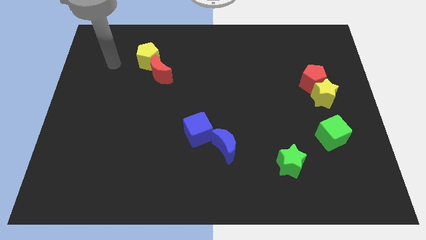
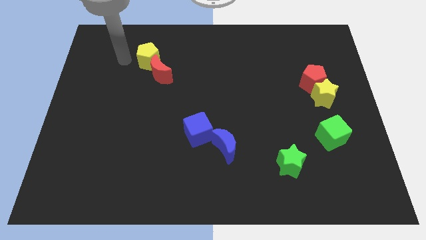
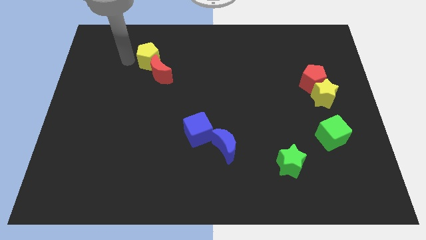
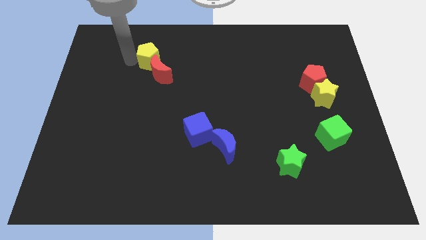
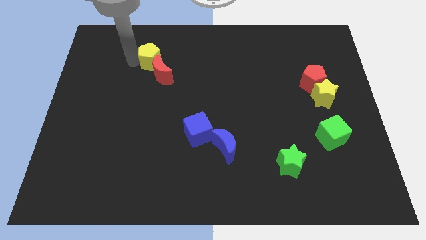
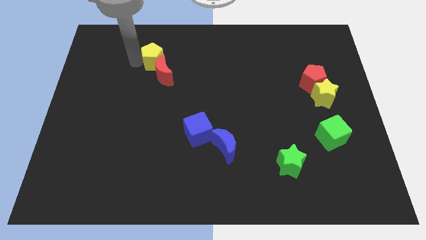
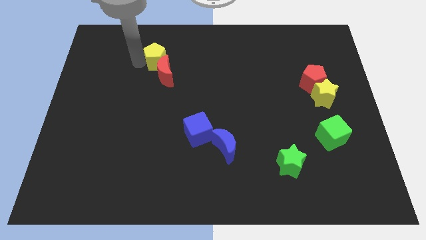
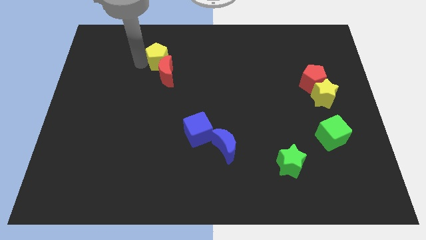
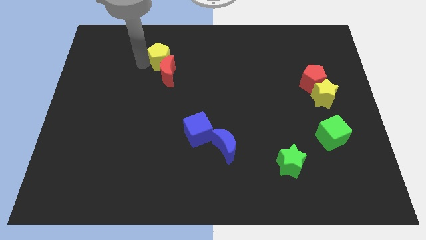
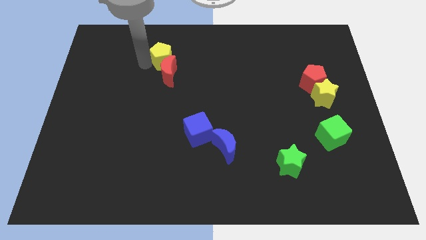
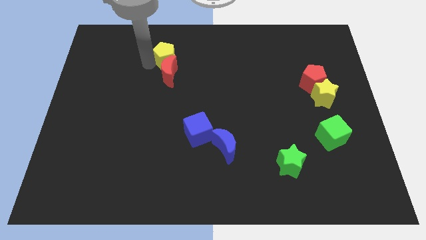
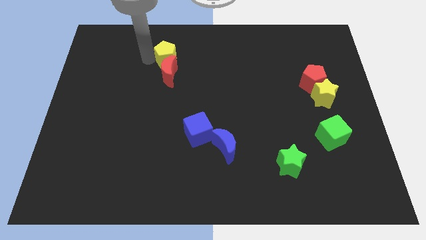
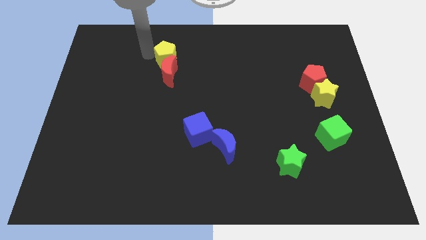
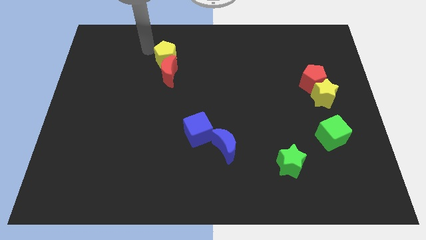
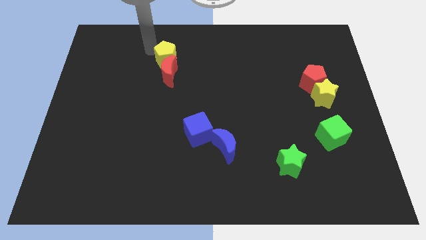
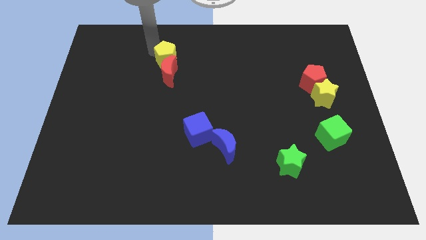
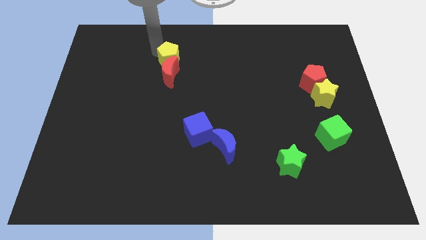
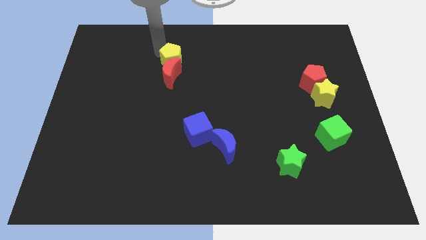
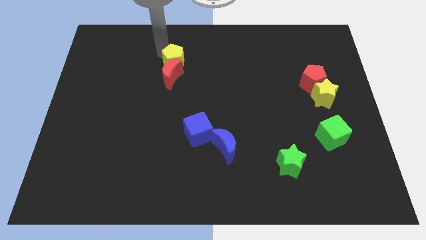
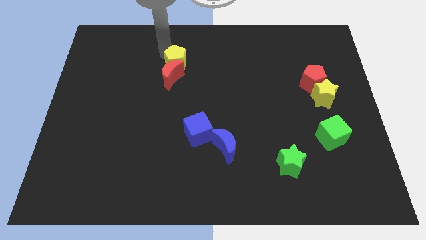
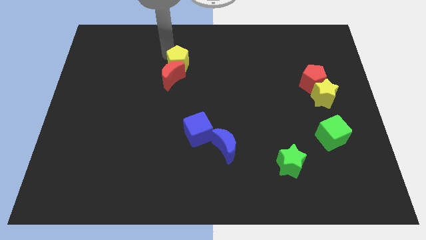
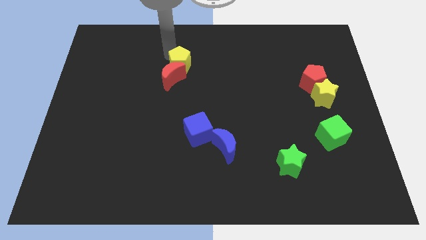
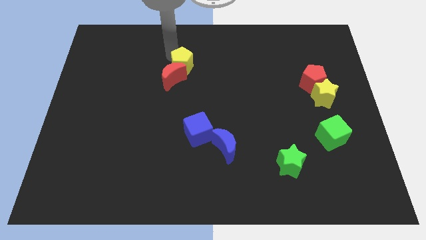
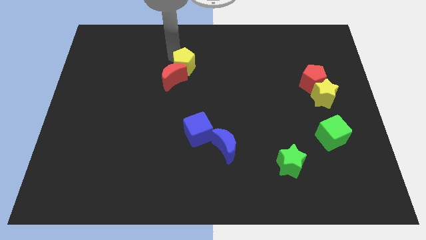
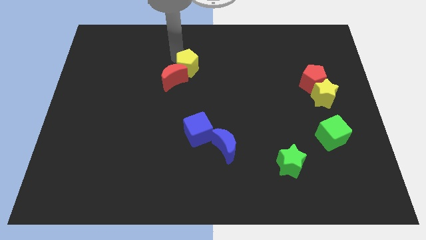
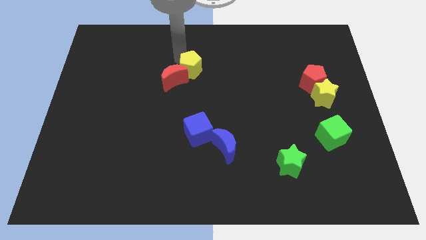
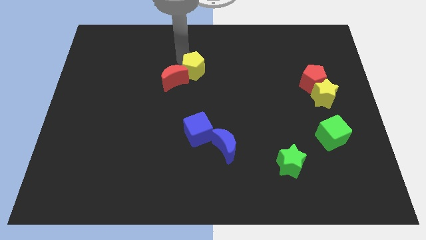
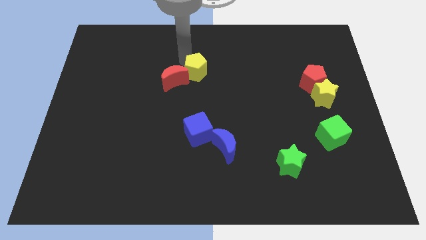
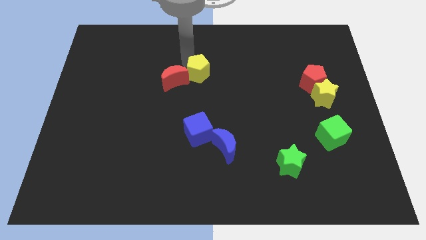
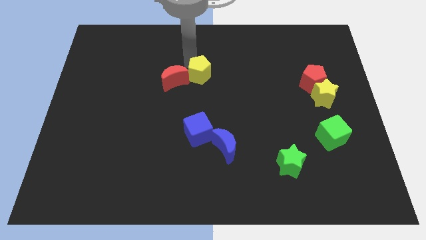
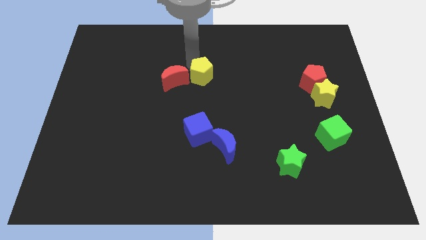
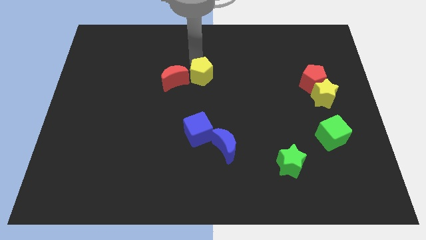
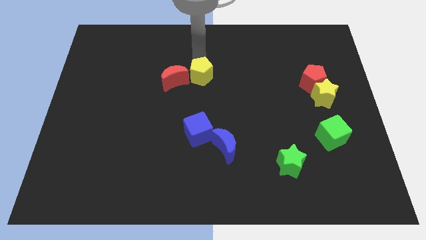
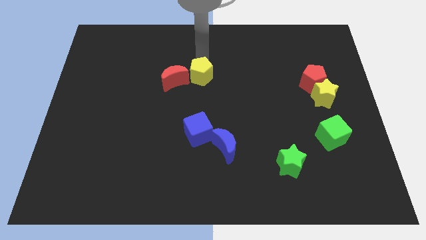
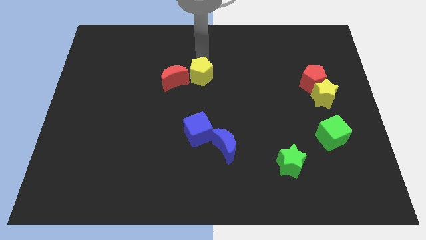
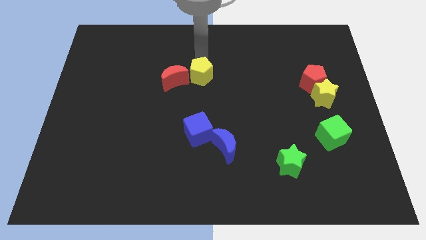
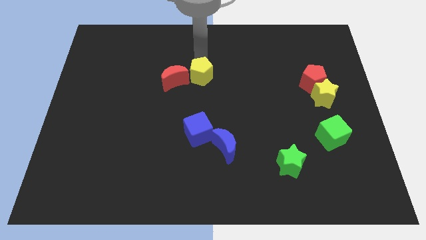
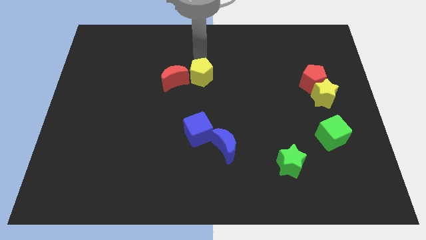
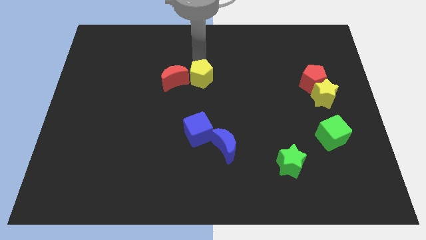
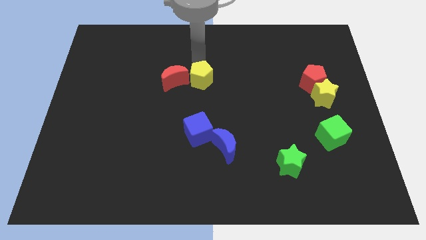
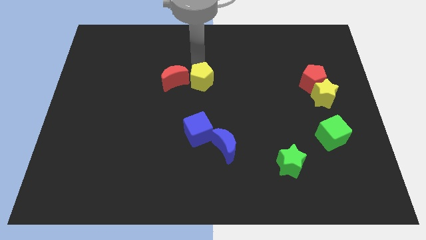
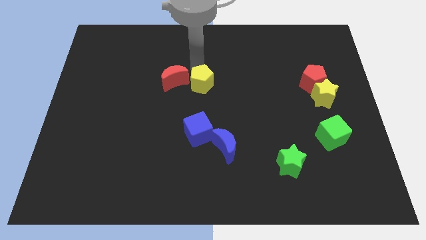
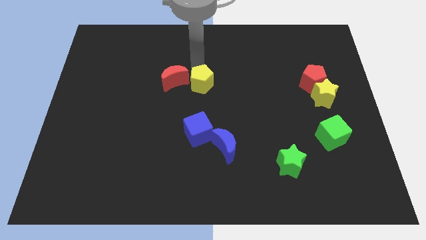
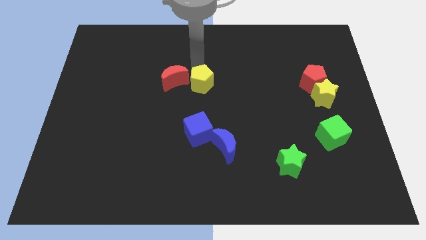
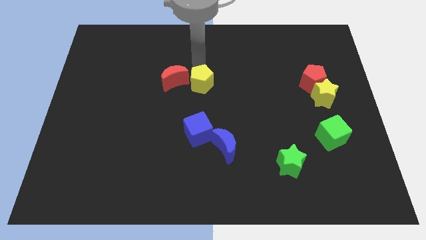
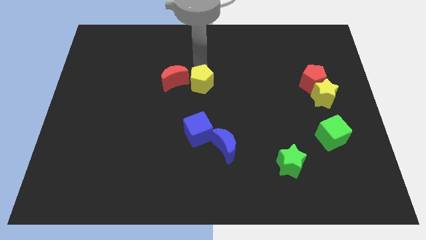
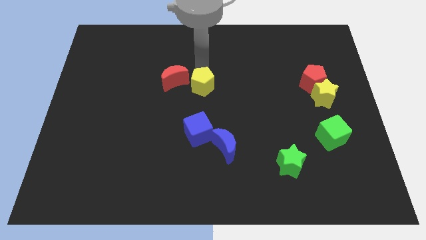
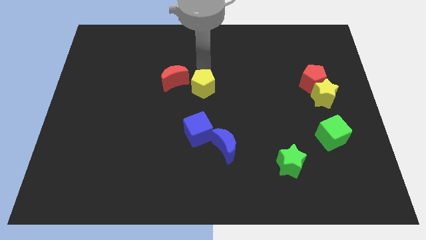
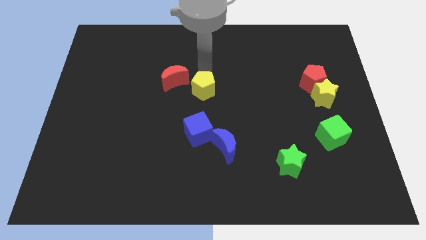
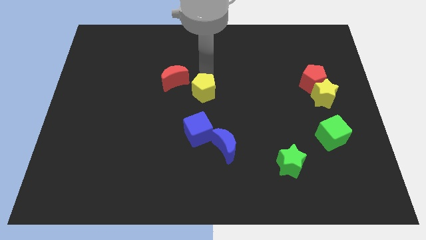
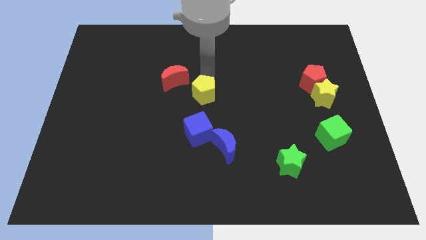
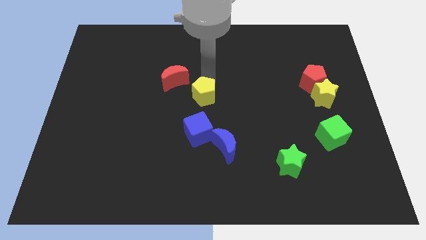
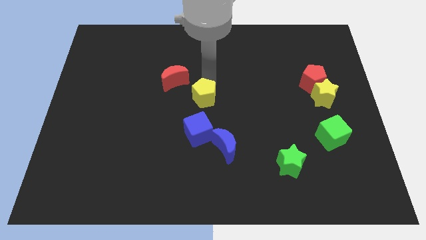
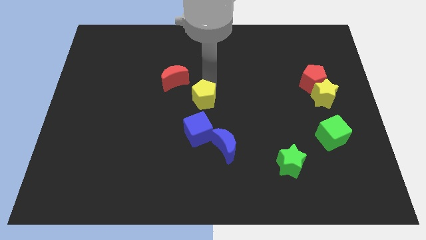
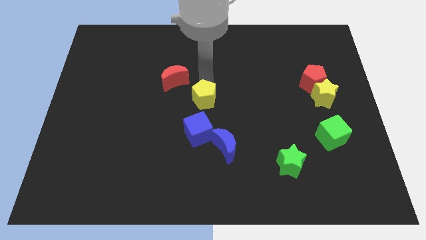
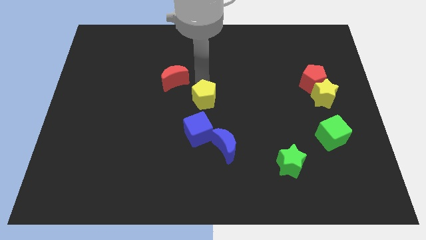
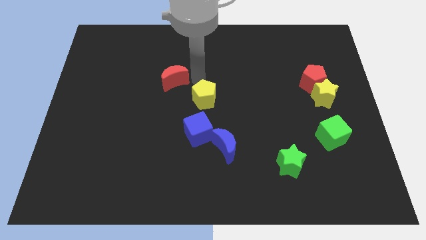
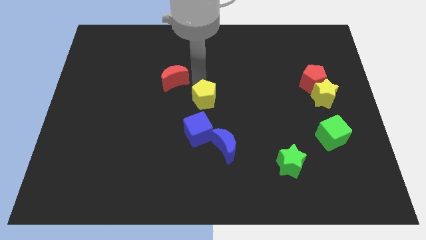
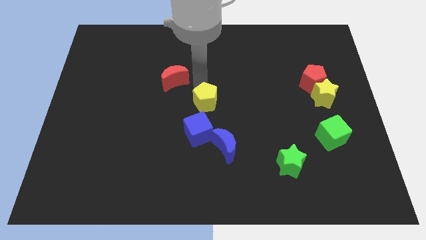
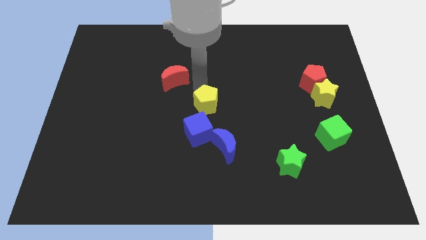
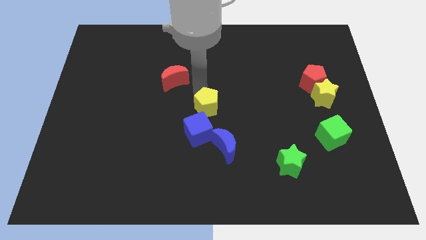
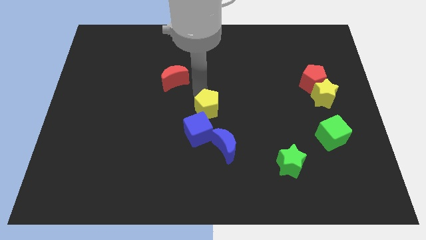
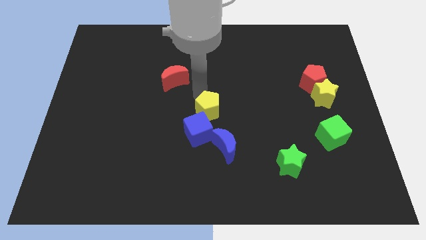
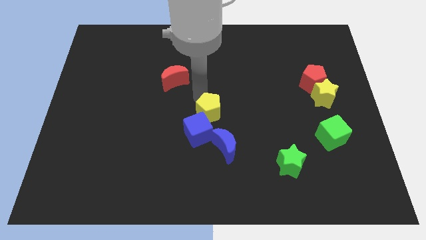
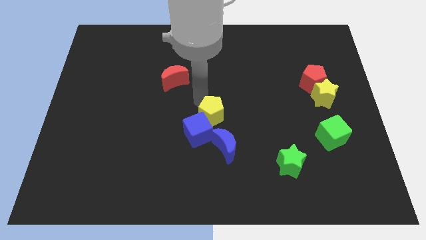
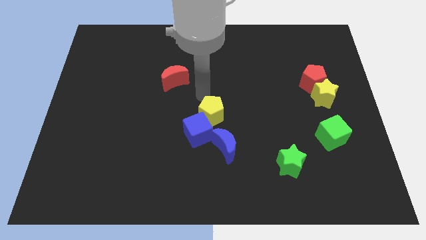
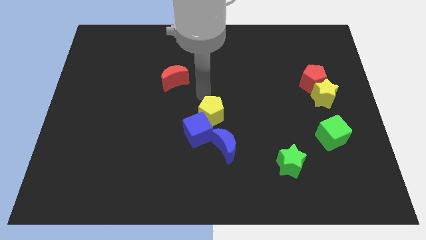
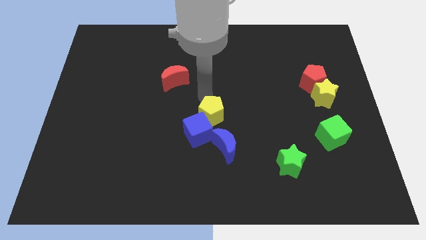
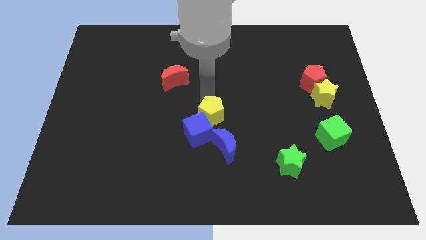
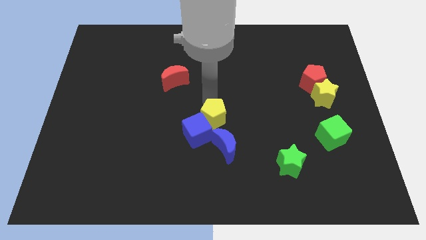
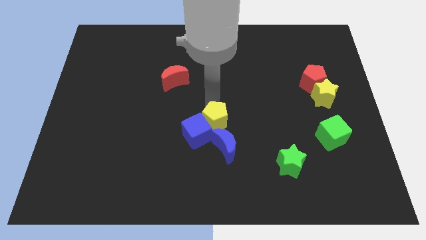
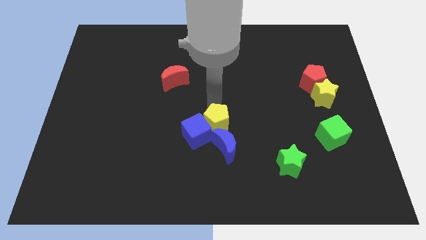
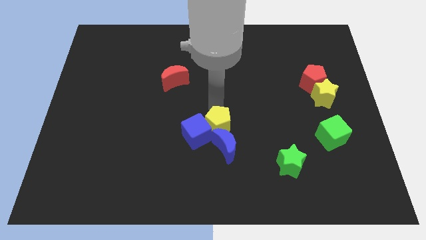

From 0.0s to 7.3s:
slide the yellow pentagon next to the blue moon

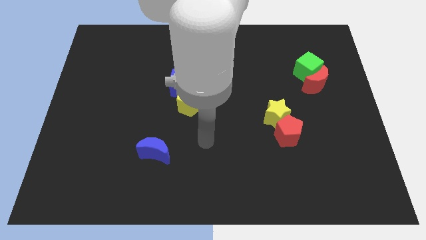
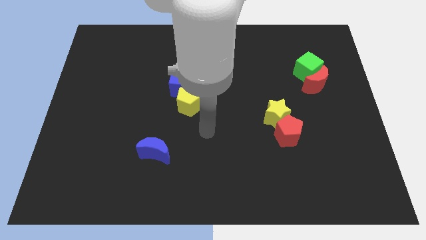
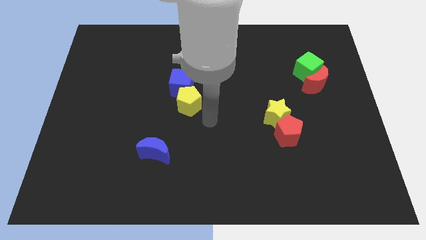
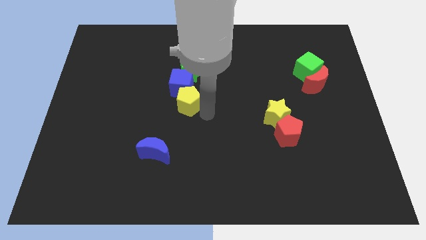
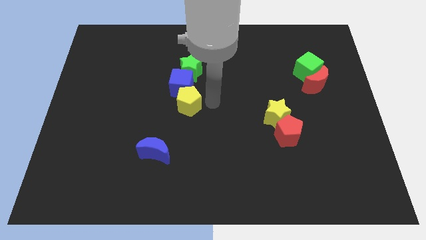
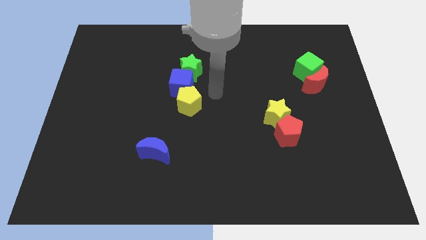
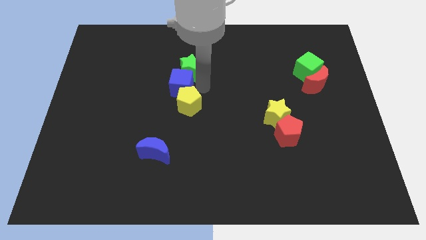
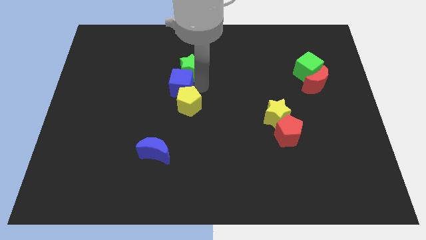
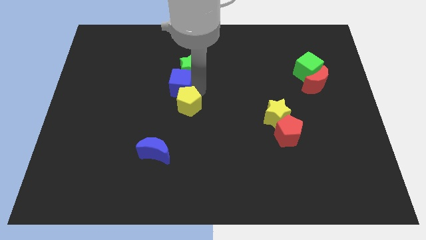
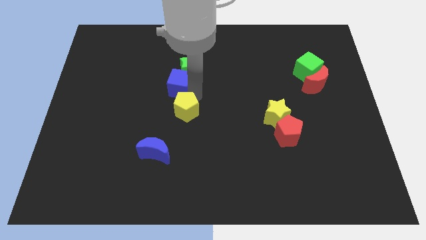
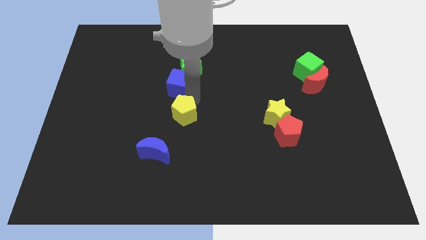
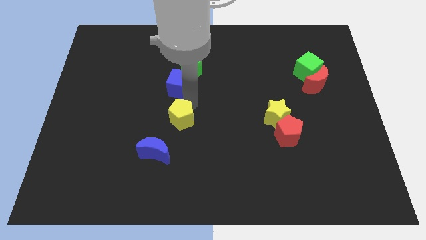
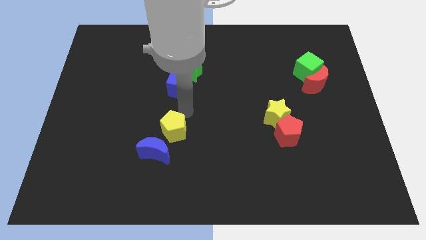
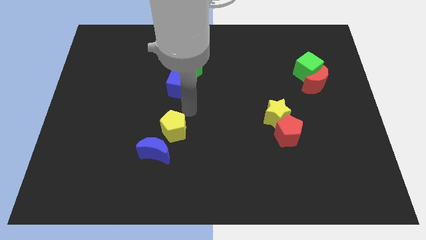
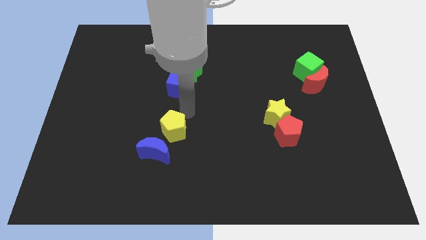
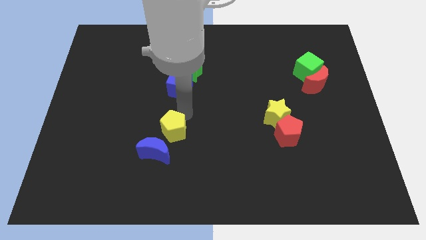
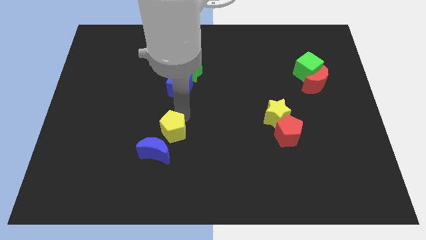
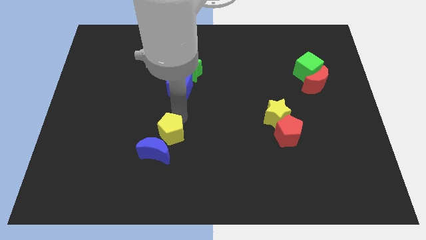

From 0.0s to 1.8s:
push the yellow pentagon close to the blue moon
